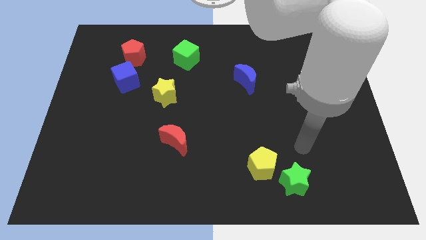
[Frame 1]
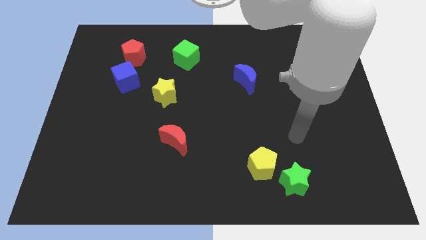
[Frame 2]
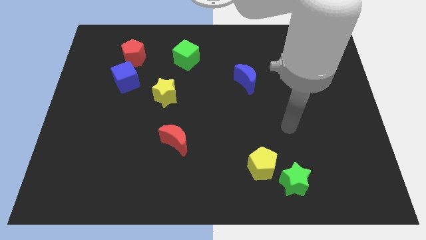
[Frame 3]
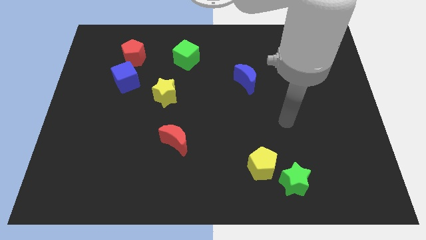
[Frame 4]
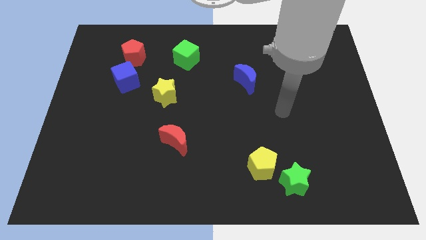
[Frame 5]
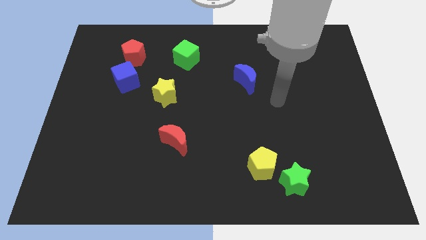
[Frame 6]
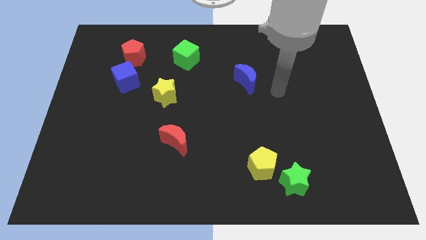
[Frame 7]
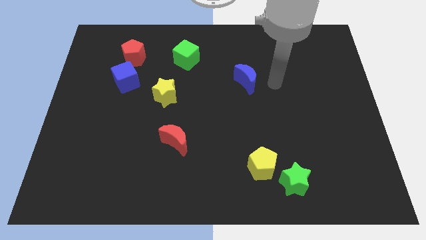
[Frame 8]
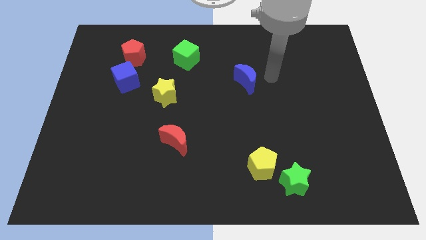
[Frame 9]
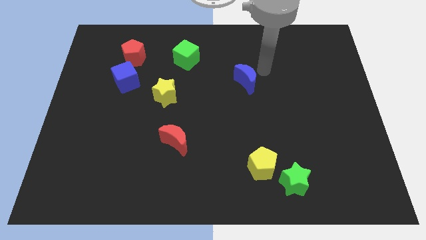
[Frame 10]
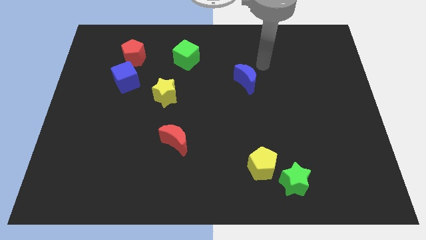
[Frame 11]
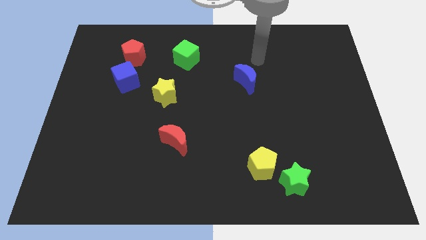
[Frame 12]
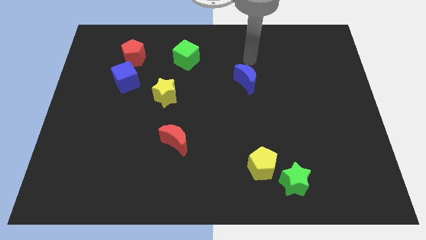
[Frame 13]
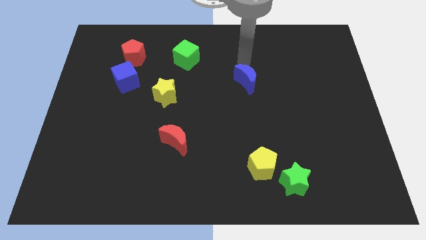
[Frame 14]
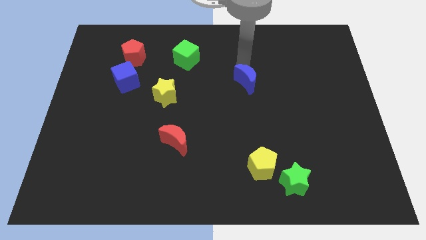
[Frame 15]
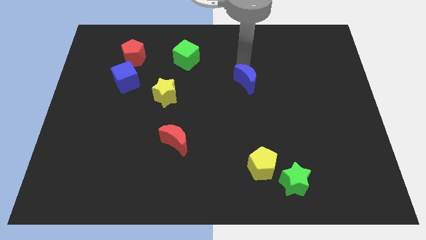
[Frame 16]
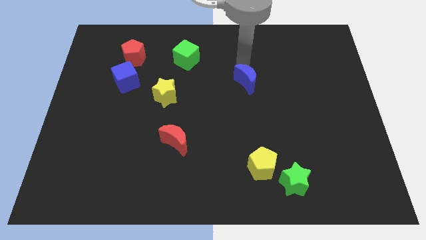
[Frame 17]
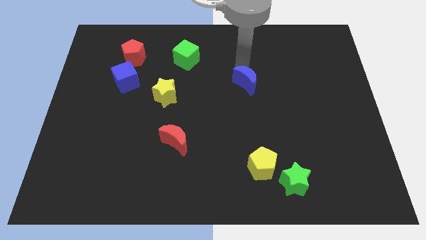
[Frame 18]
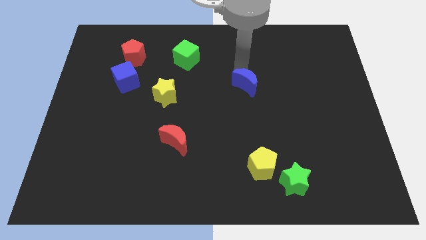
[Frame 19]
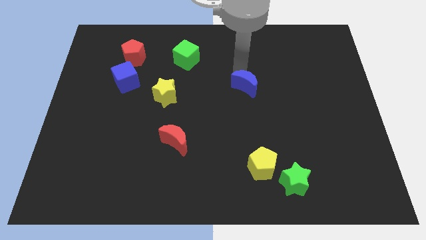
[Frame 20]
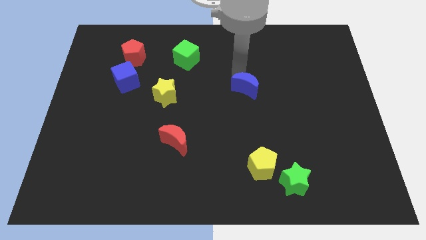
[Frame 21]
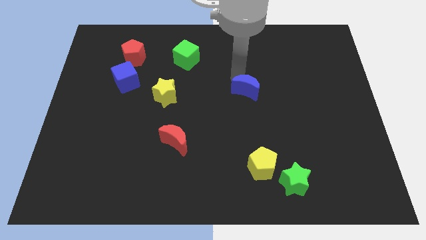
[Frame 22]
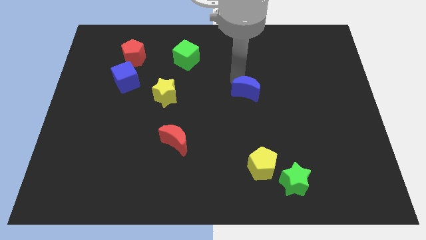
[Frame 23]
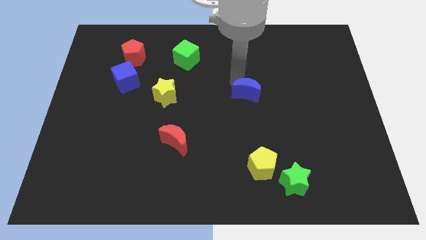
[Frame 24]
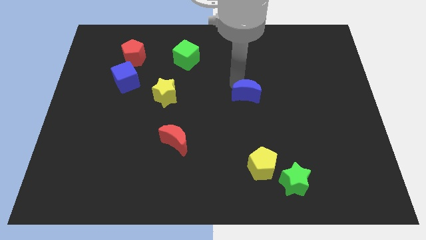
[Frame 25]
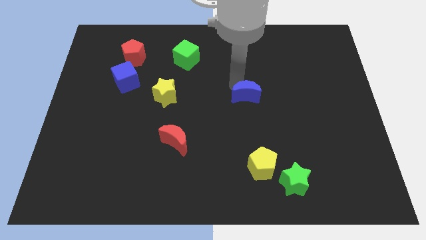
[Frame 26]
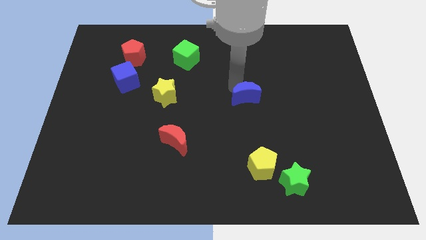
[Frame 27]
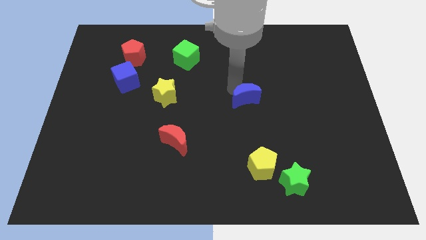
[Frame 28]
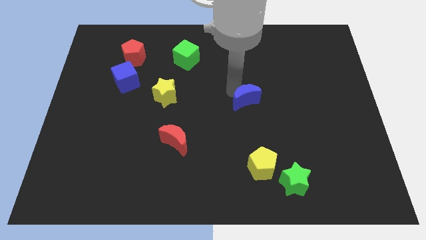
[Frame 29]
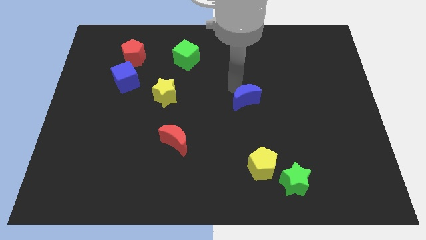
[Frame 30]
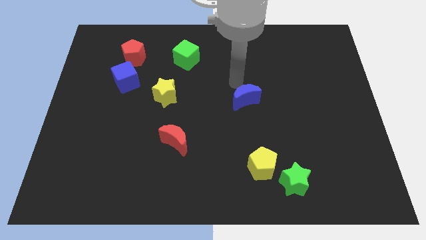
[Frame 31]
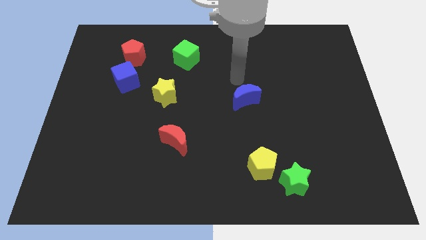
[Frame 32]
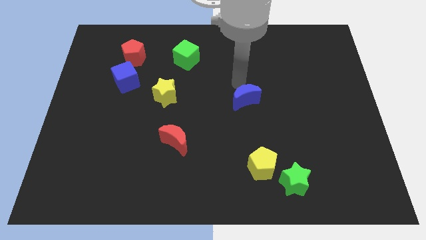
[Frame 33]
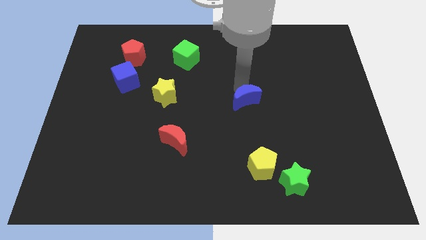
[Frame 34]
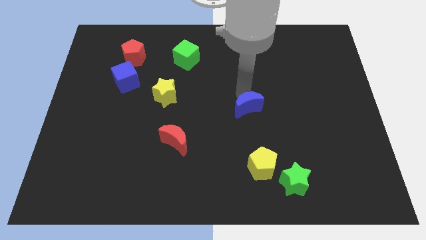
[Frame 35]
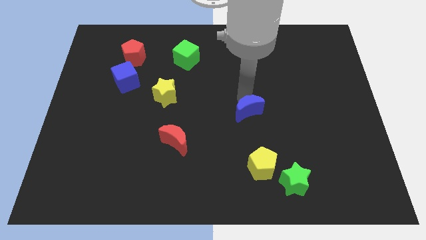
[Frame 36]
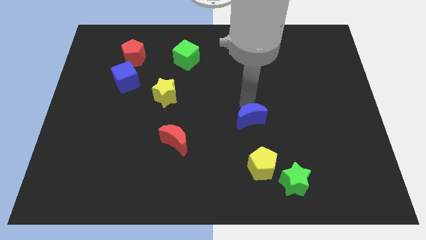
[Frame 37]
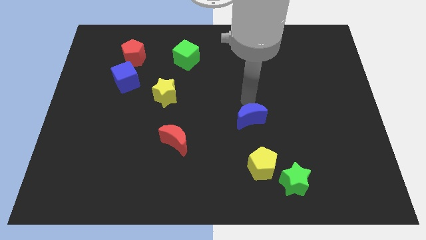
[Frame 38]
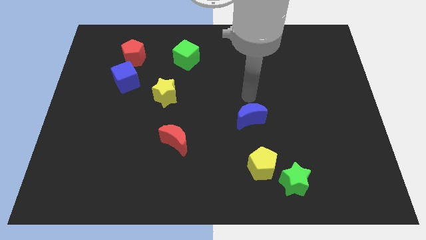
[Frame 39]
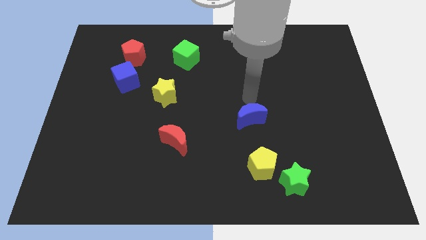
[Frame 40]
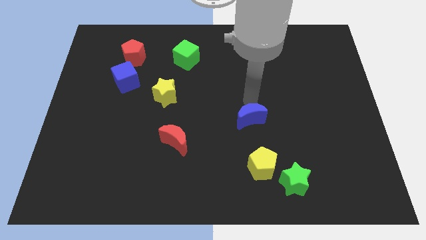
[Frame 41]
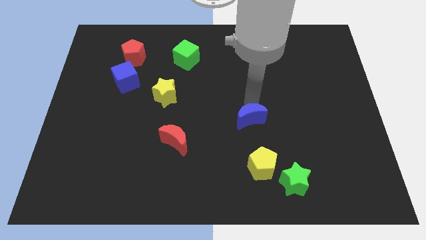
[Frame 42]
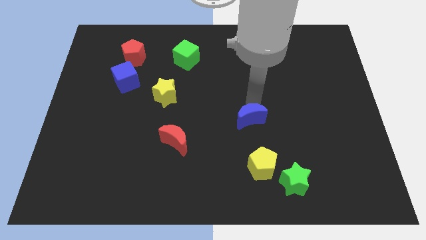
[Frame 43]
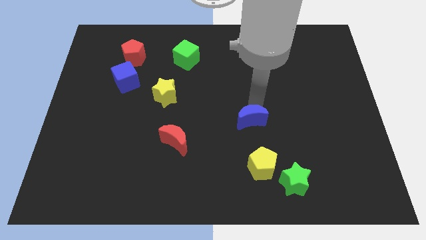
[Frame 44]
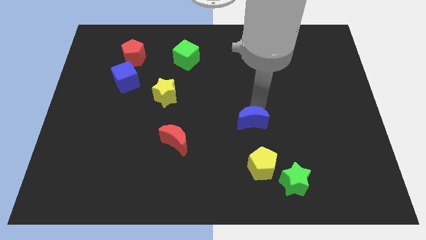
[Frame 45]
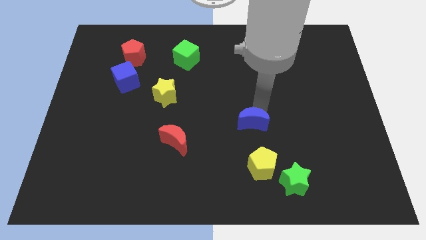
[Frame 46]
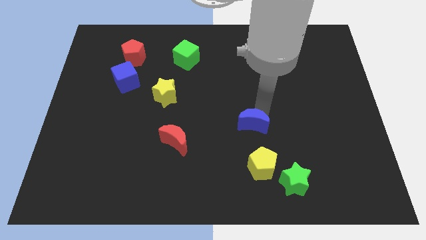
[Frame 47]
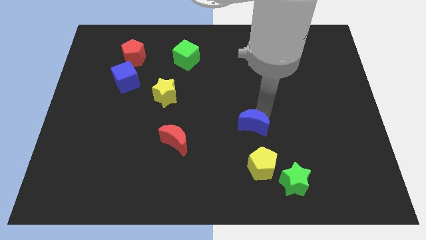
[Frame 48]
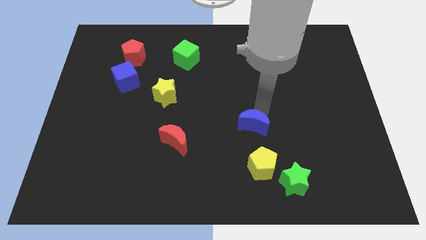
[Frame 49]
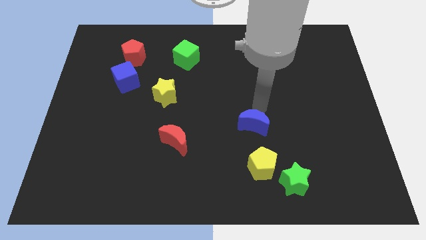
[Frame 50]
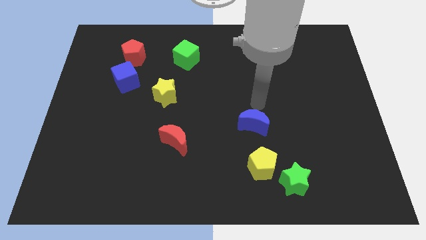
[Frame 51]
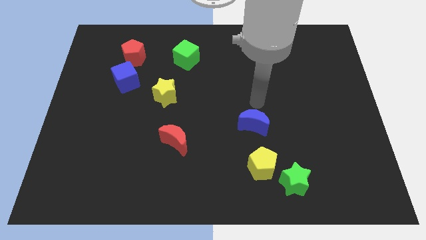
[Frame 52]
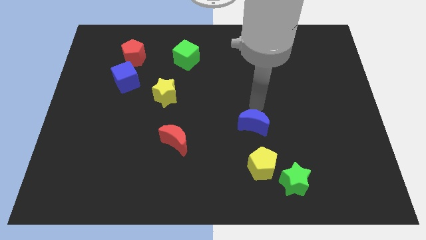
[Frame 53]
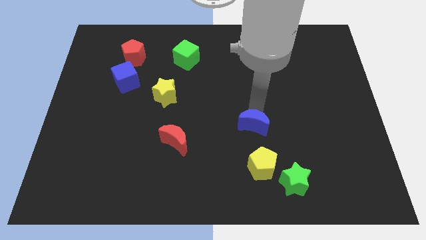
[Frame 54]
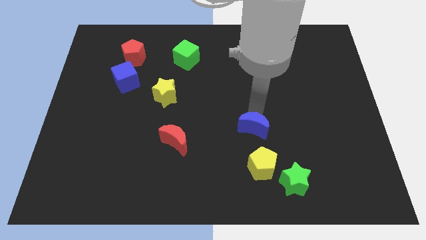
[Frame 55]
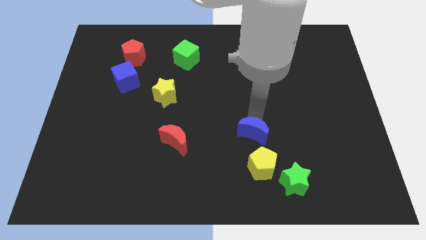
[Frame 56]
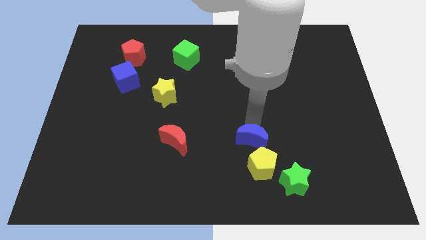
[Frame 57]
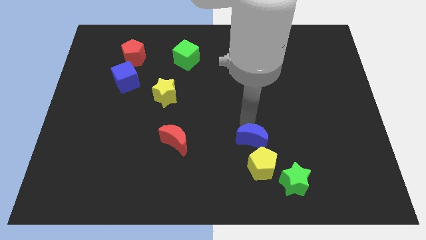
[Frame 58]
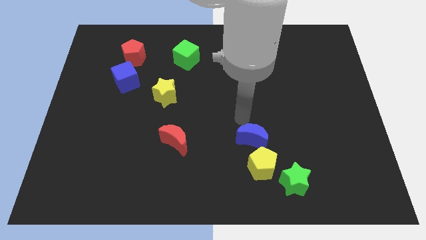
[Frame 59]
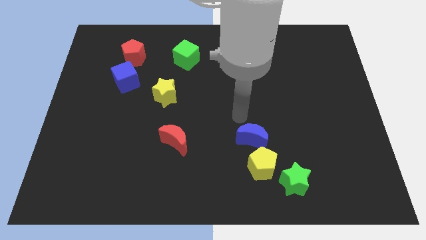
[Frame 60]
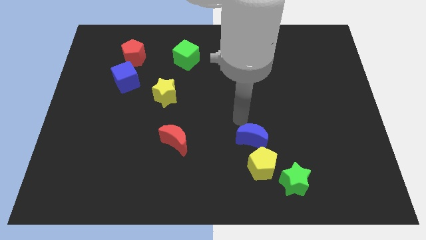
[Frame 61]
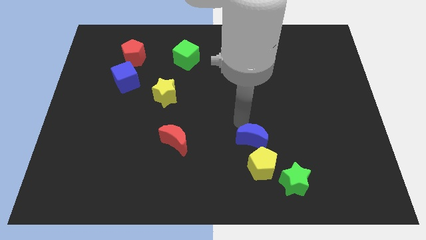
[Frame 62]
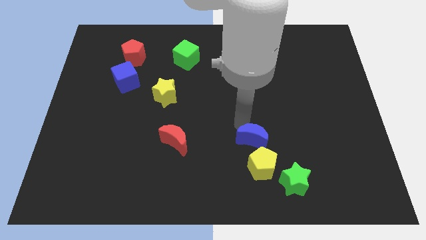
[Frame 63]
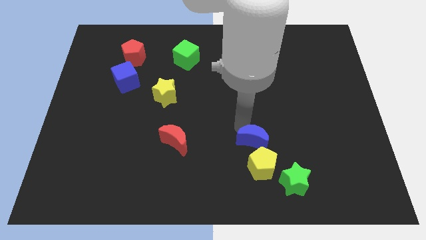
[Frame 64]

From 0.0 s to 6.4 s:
slide the blue moon to the top left side of the green star
